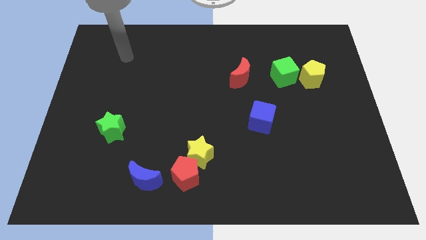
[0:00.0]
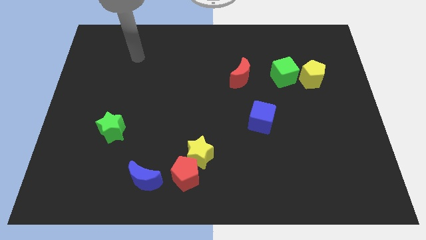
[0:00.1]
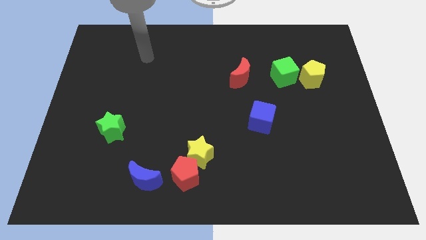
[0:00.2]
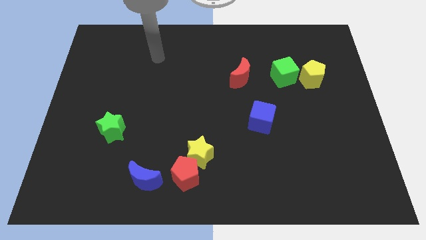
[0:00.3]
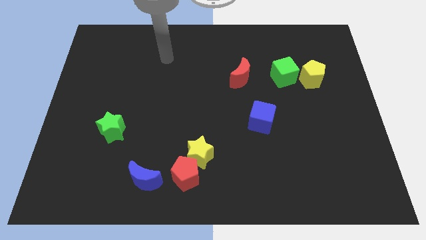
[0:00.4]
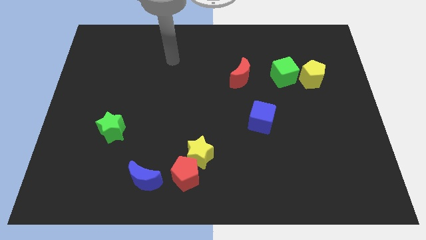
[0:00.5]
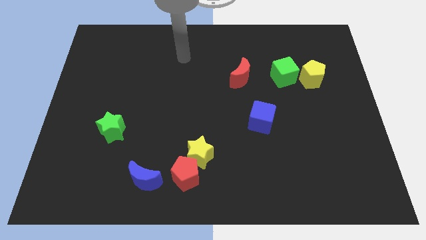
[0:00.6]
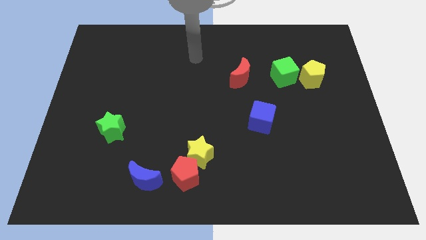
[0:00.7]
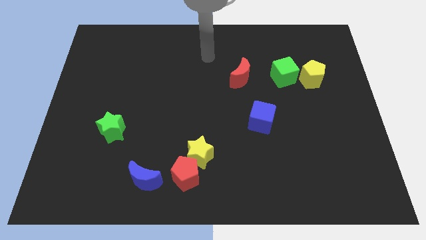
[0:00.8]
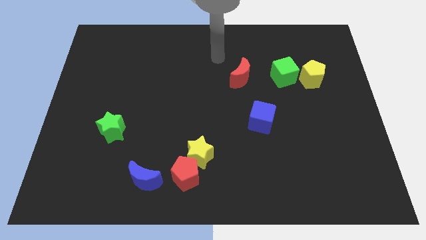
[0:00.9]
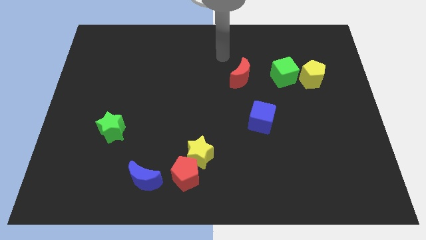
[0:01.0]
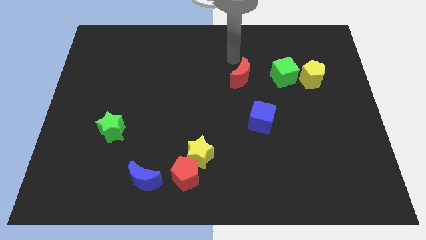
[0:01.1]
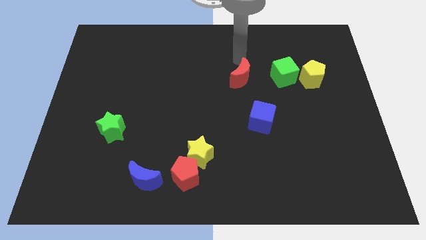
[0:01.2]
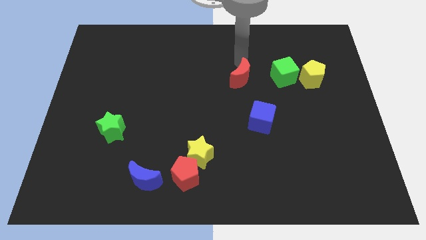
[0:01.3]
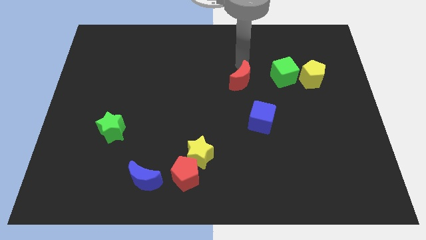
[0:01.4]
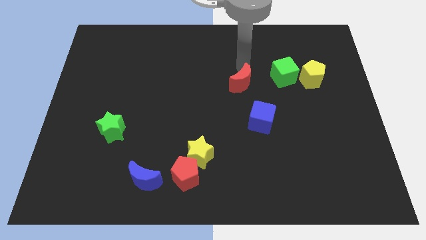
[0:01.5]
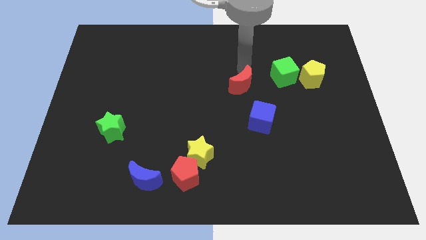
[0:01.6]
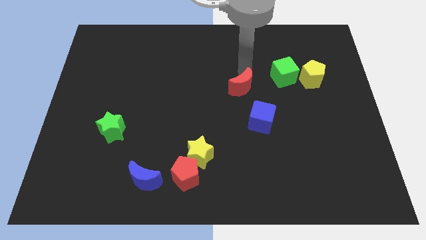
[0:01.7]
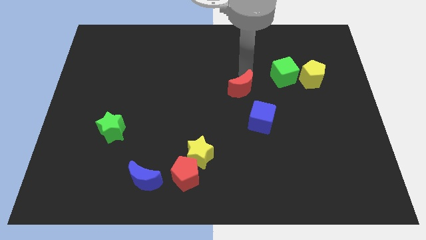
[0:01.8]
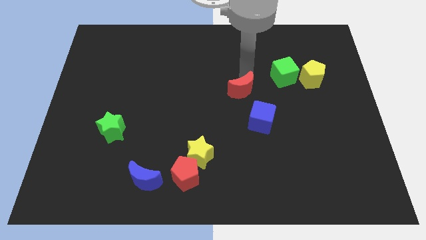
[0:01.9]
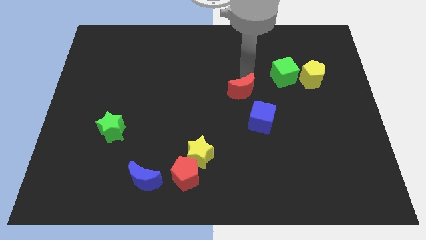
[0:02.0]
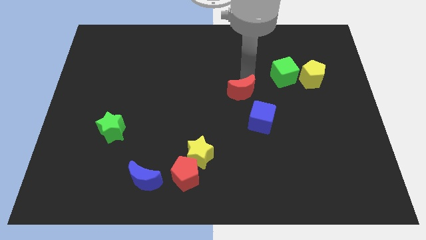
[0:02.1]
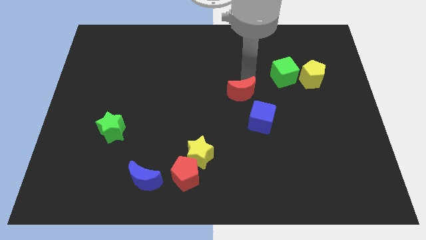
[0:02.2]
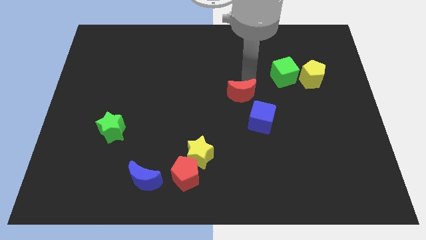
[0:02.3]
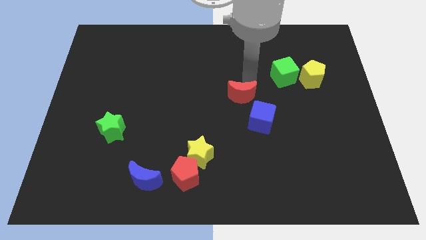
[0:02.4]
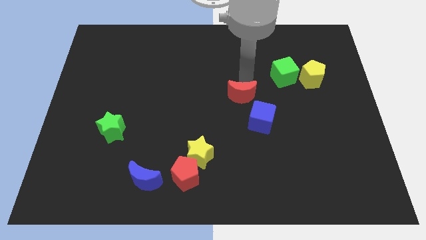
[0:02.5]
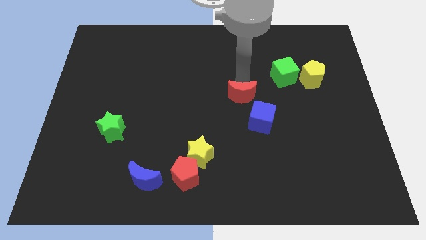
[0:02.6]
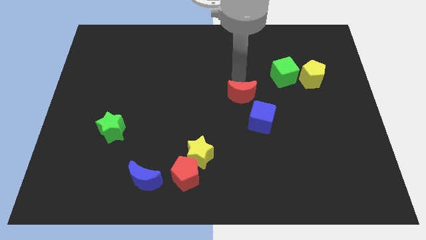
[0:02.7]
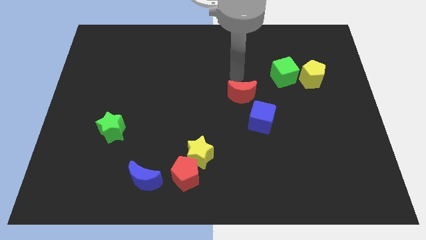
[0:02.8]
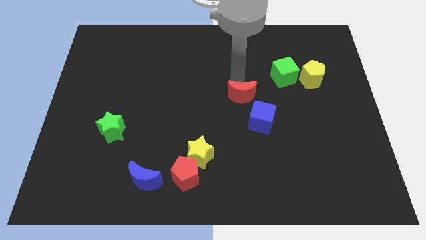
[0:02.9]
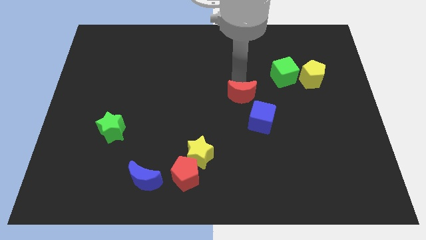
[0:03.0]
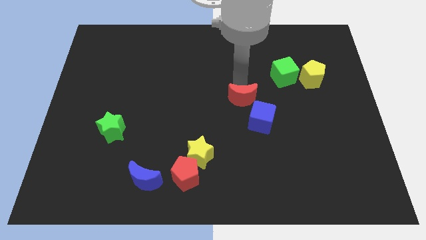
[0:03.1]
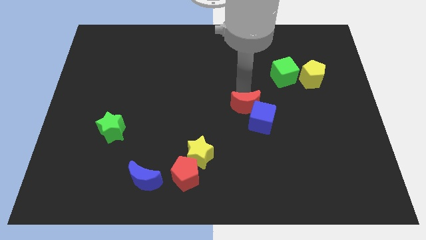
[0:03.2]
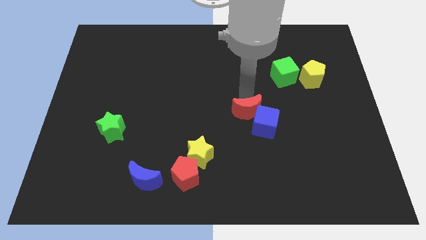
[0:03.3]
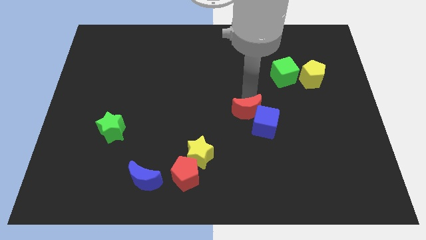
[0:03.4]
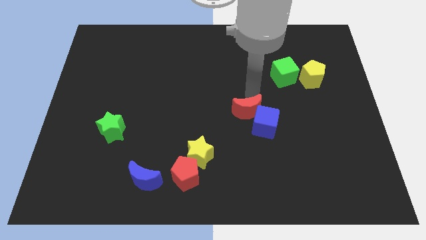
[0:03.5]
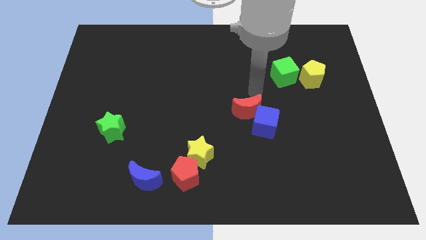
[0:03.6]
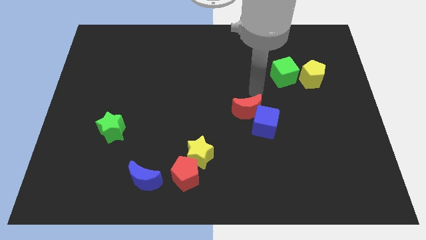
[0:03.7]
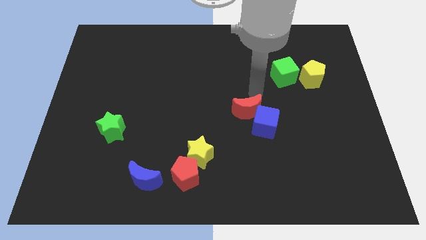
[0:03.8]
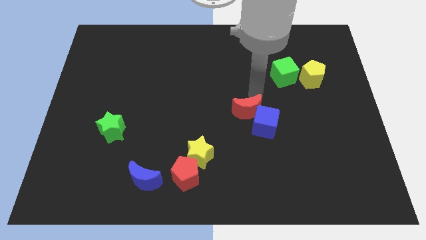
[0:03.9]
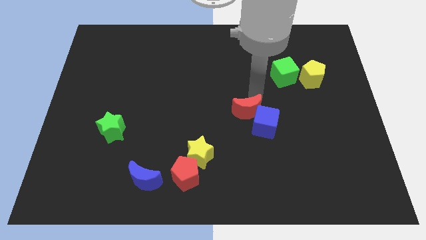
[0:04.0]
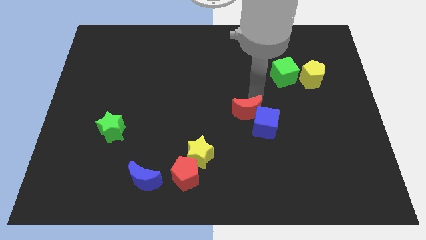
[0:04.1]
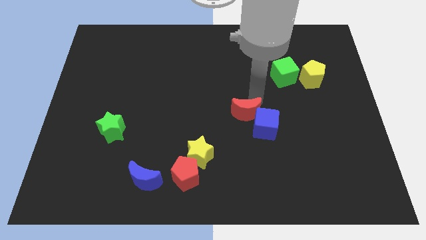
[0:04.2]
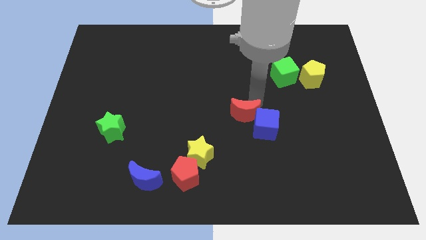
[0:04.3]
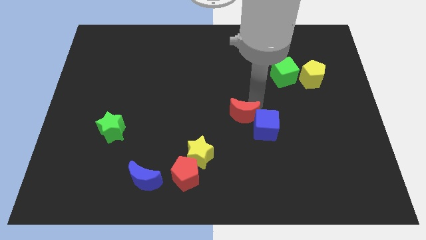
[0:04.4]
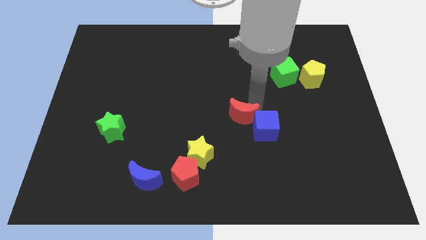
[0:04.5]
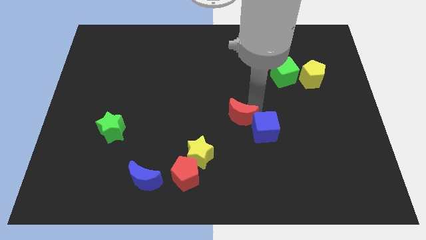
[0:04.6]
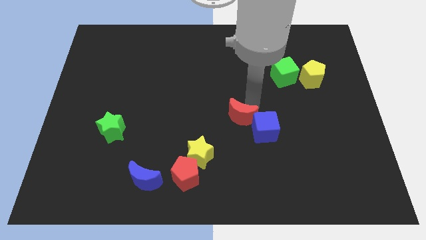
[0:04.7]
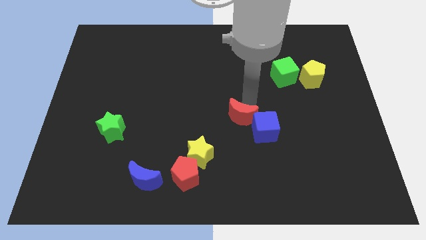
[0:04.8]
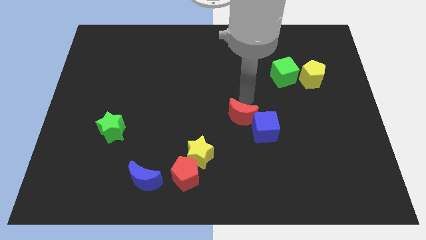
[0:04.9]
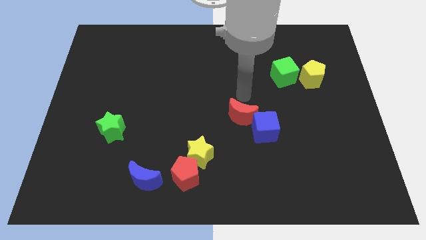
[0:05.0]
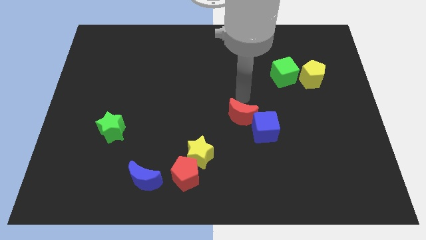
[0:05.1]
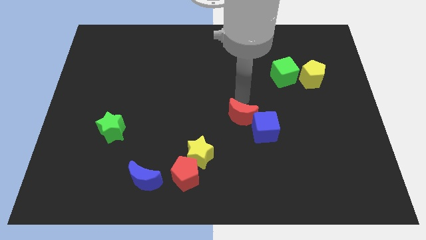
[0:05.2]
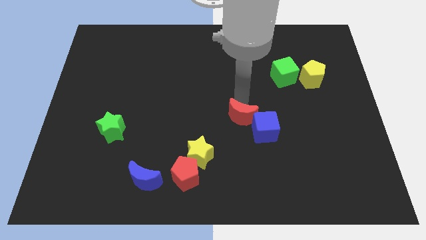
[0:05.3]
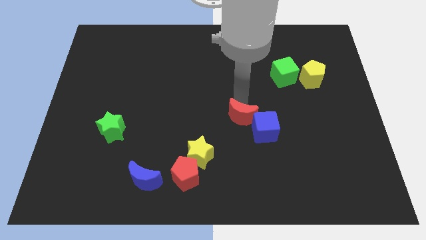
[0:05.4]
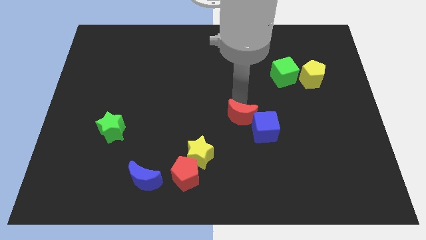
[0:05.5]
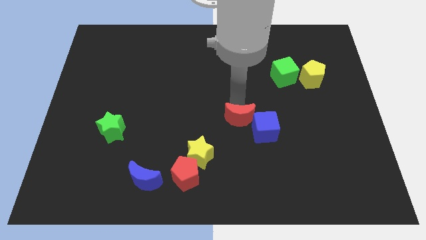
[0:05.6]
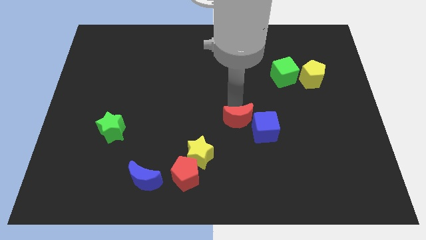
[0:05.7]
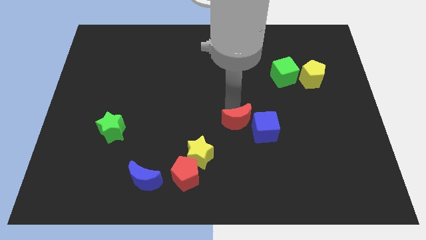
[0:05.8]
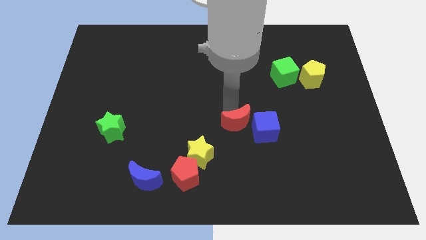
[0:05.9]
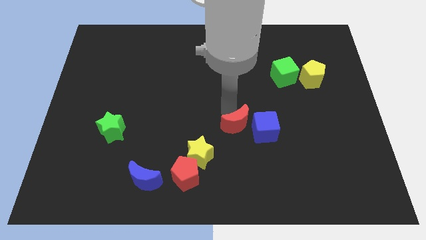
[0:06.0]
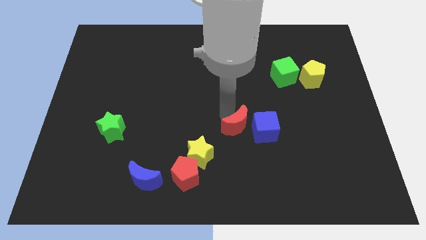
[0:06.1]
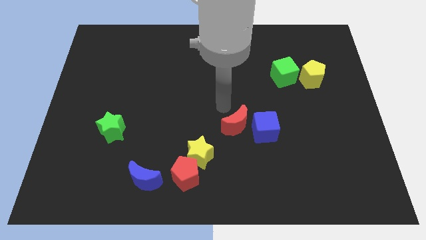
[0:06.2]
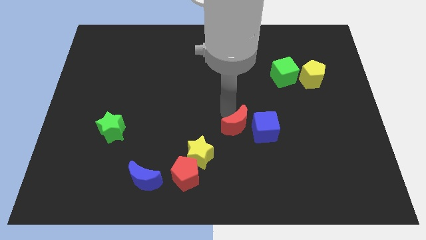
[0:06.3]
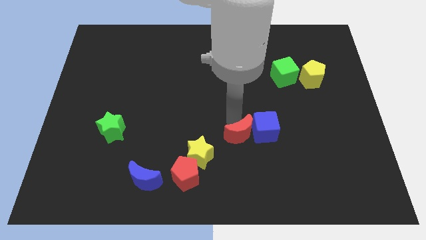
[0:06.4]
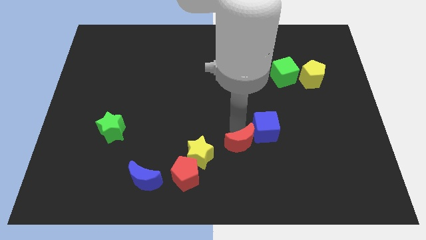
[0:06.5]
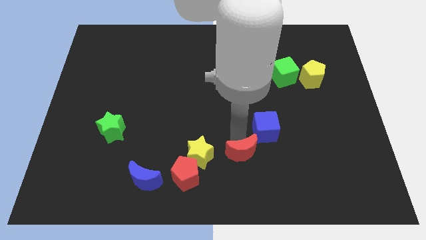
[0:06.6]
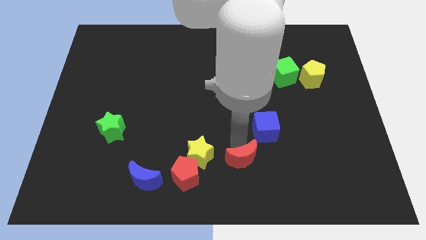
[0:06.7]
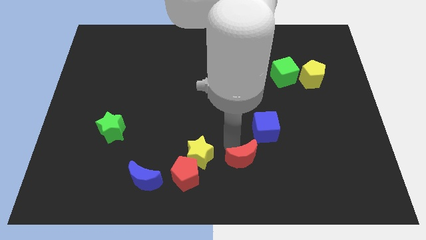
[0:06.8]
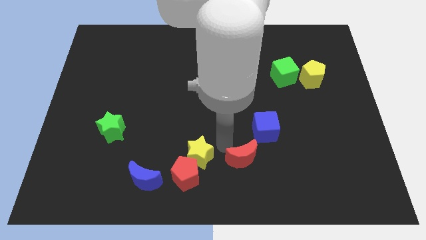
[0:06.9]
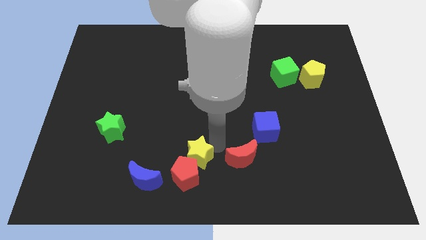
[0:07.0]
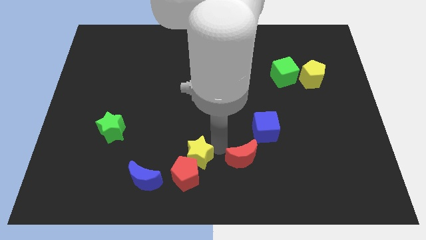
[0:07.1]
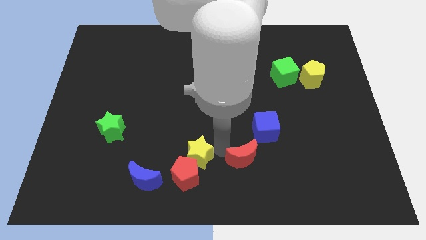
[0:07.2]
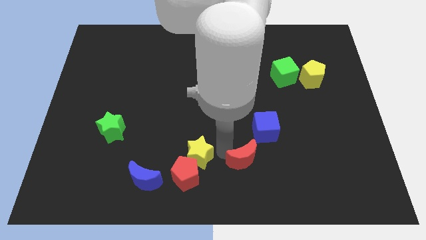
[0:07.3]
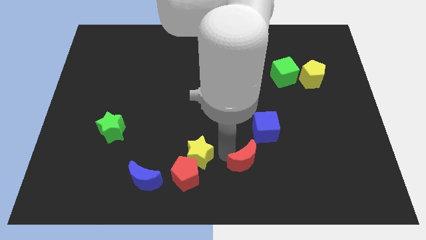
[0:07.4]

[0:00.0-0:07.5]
move the red moon to the bottom of the blue cube
